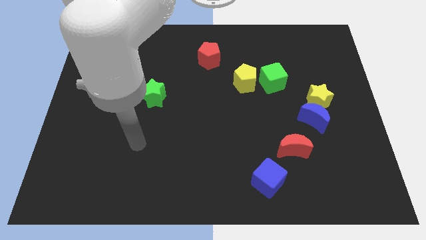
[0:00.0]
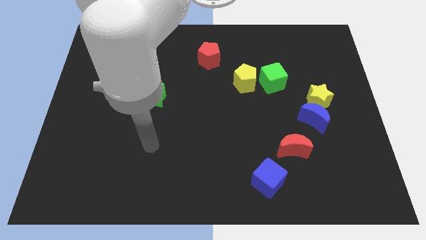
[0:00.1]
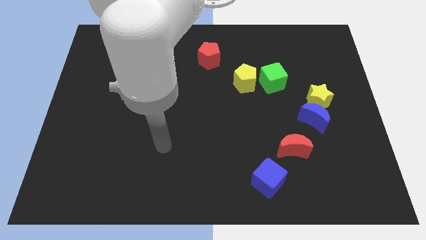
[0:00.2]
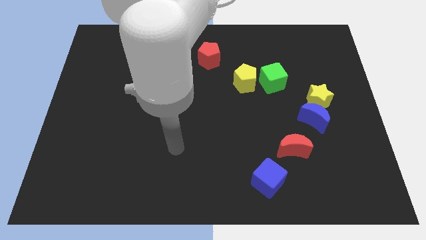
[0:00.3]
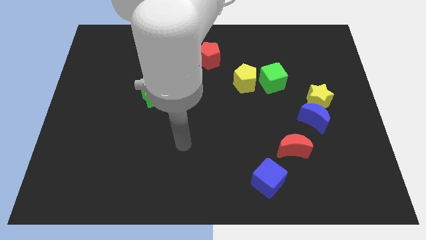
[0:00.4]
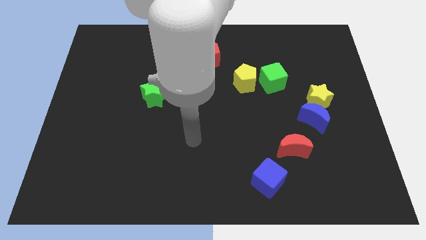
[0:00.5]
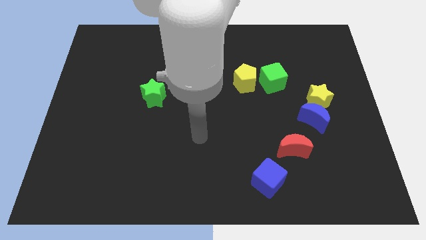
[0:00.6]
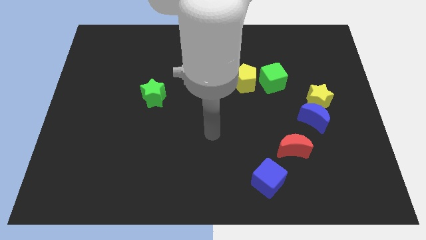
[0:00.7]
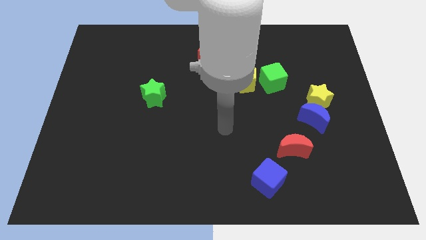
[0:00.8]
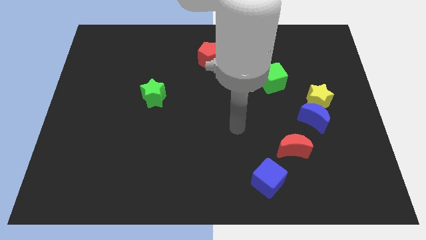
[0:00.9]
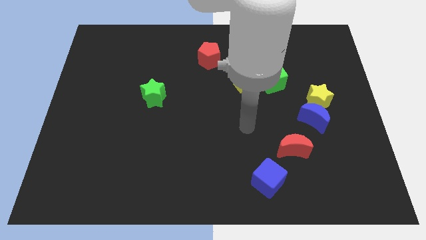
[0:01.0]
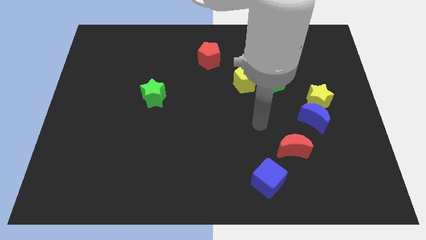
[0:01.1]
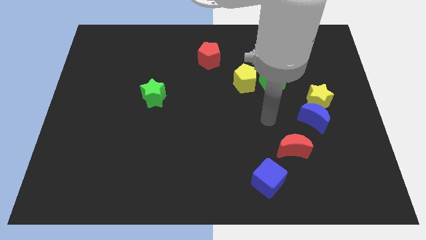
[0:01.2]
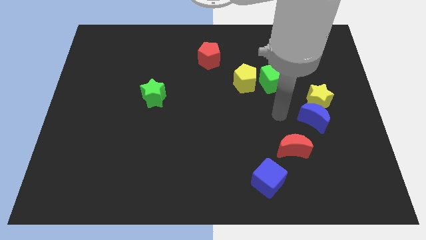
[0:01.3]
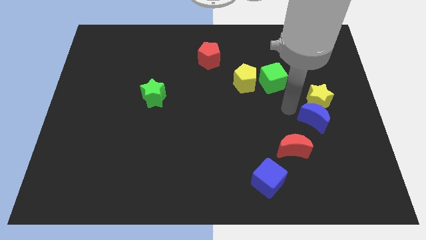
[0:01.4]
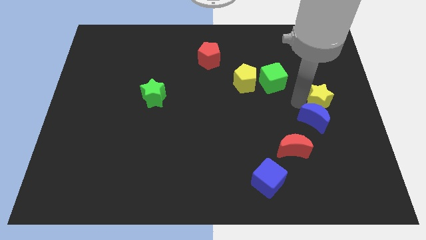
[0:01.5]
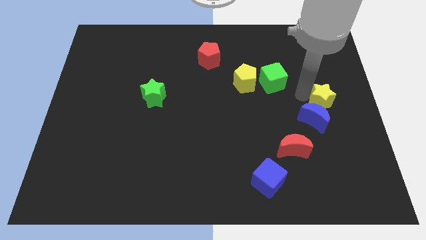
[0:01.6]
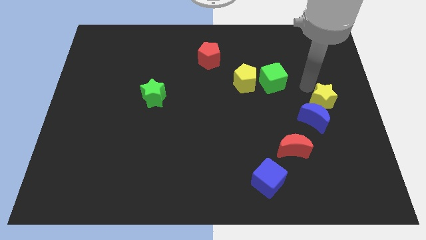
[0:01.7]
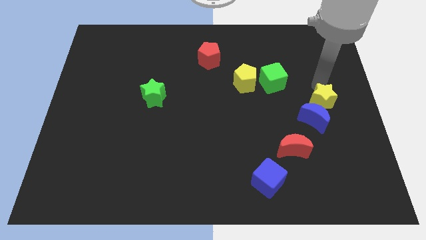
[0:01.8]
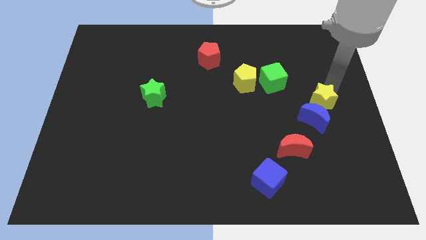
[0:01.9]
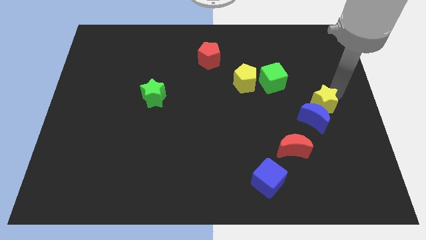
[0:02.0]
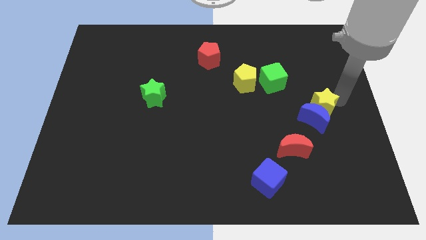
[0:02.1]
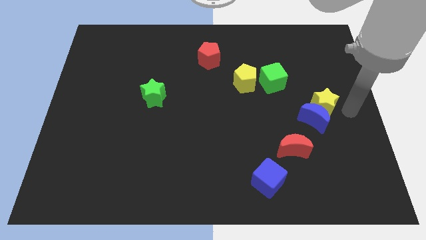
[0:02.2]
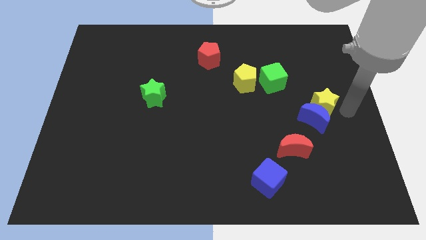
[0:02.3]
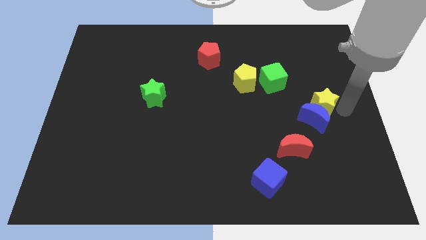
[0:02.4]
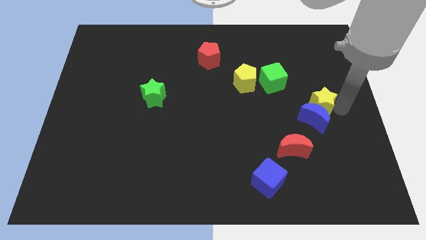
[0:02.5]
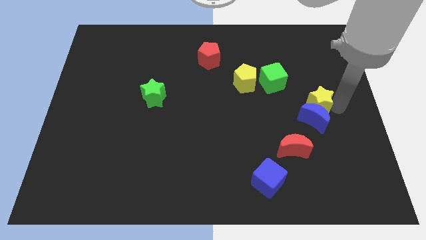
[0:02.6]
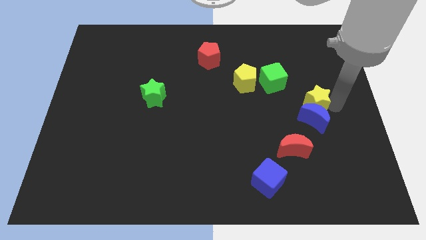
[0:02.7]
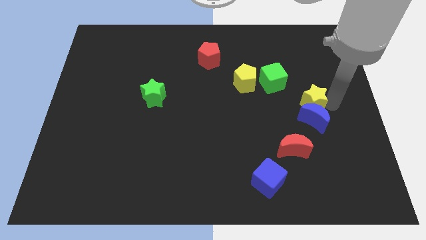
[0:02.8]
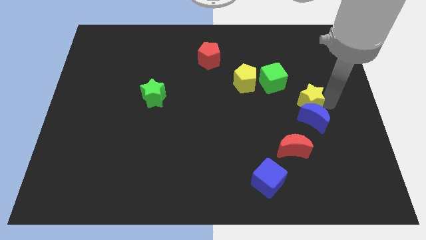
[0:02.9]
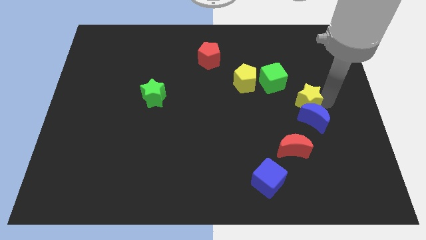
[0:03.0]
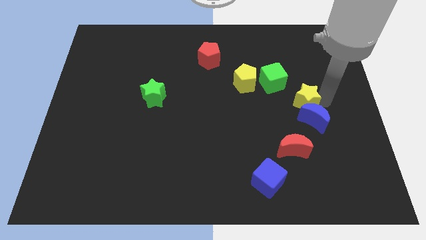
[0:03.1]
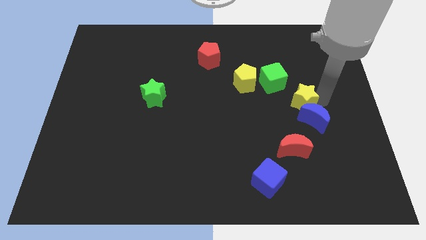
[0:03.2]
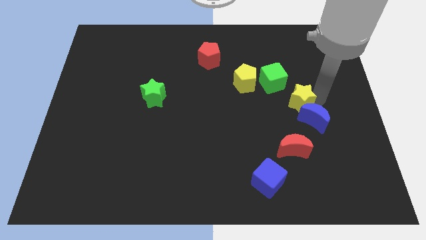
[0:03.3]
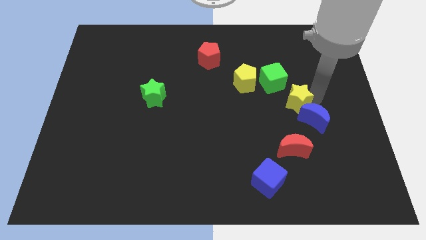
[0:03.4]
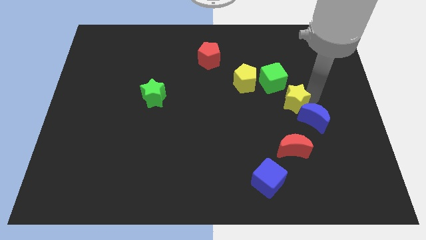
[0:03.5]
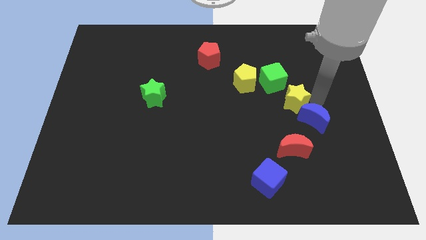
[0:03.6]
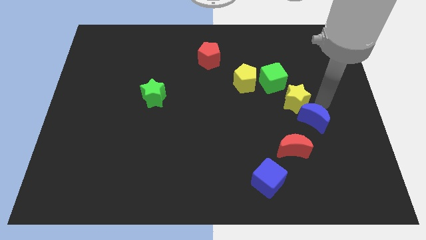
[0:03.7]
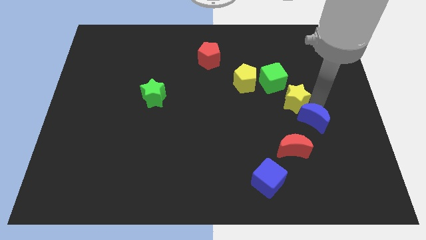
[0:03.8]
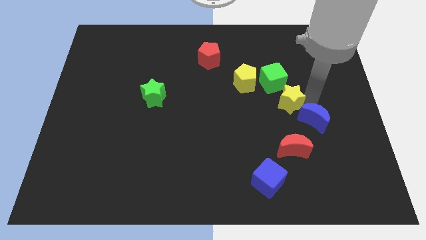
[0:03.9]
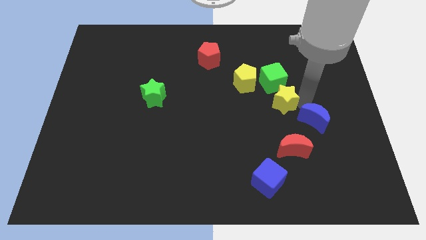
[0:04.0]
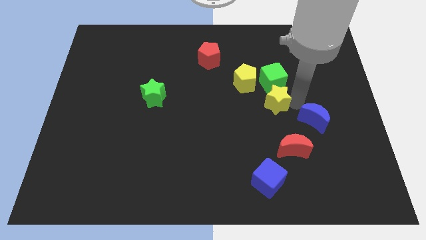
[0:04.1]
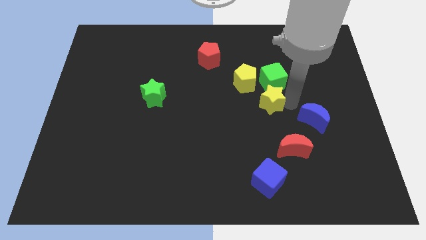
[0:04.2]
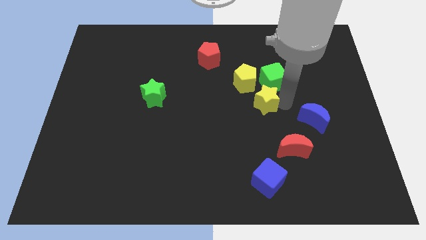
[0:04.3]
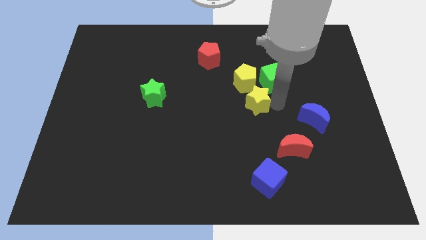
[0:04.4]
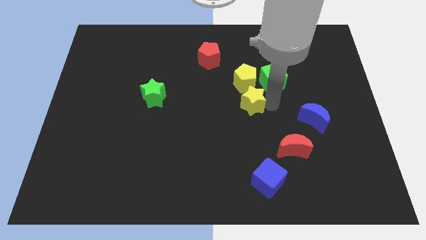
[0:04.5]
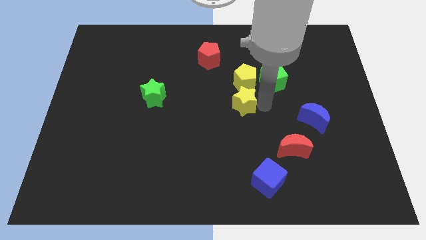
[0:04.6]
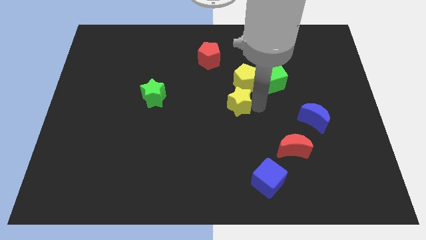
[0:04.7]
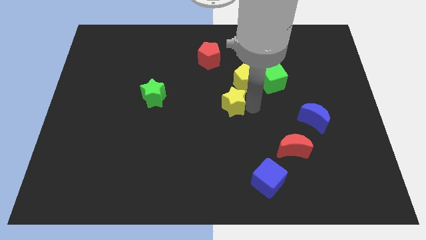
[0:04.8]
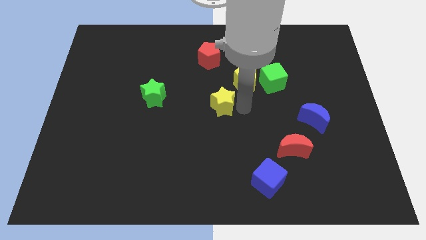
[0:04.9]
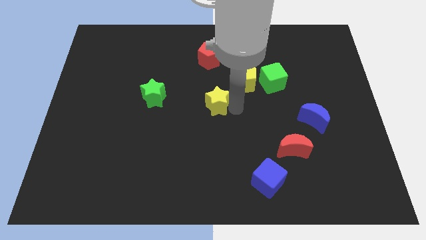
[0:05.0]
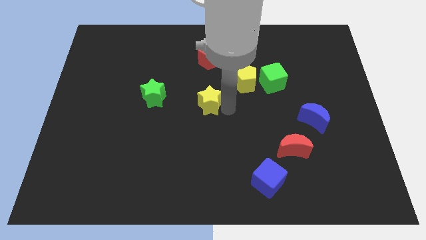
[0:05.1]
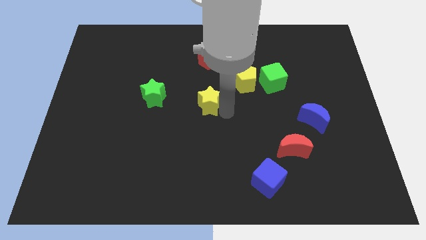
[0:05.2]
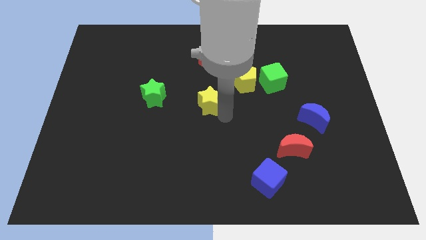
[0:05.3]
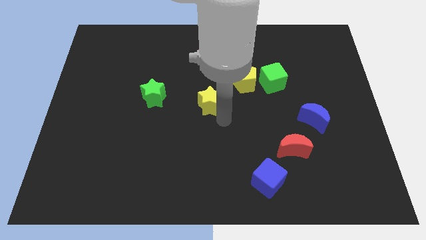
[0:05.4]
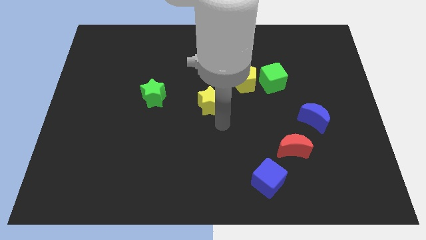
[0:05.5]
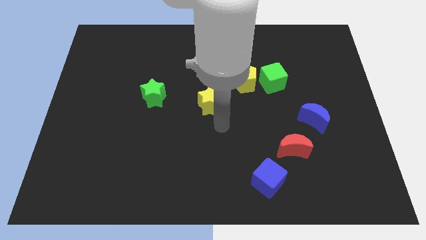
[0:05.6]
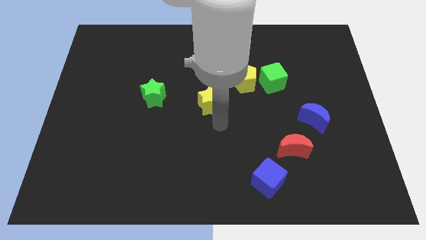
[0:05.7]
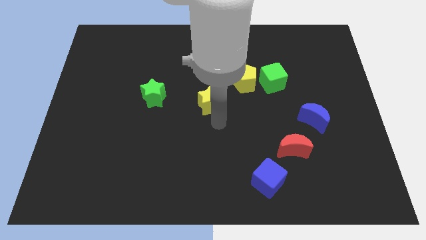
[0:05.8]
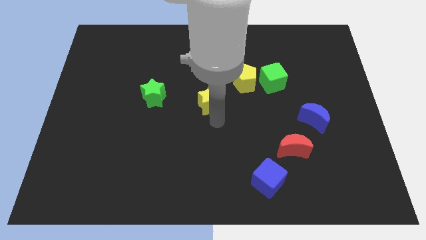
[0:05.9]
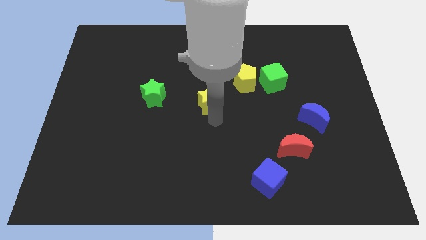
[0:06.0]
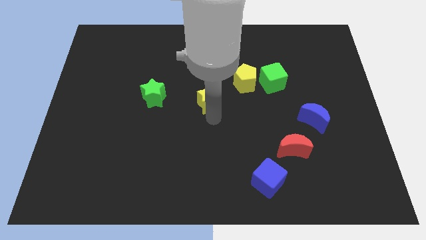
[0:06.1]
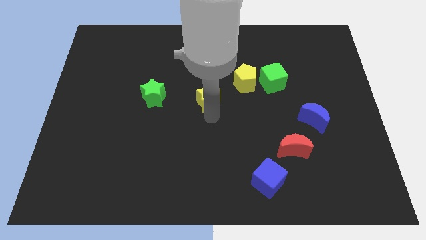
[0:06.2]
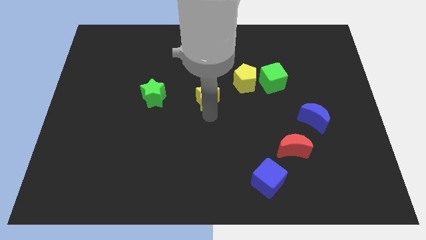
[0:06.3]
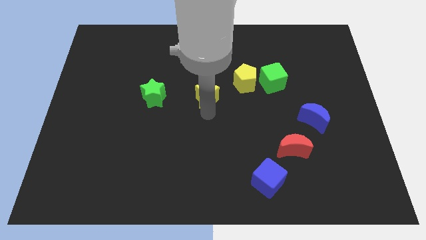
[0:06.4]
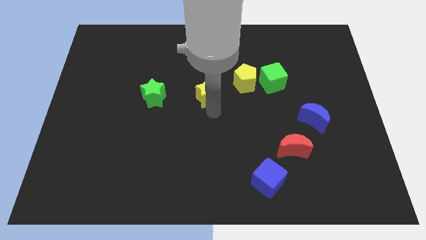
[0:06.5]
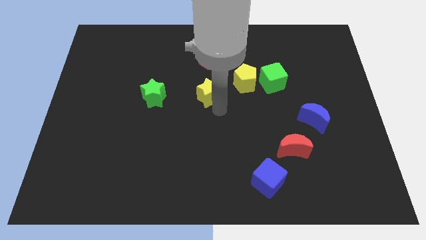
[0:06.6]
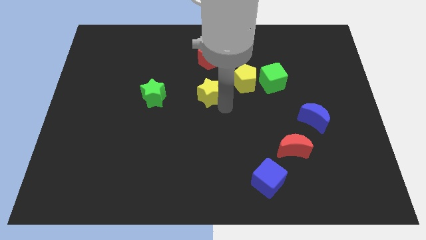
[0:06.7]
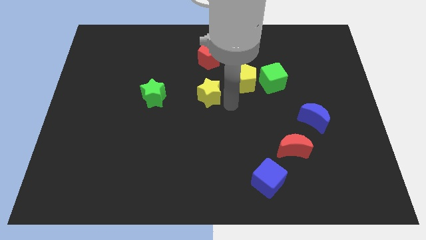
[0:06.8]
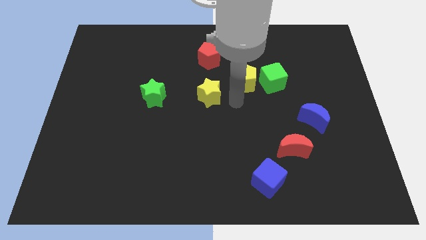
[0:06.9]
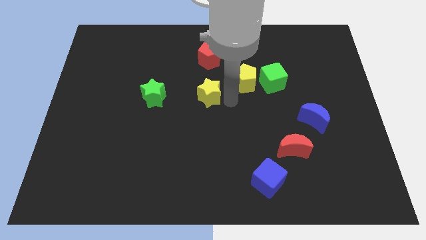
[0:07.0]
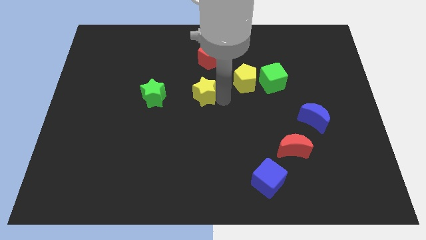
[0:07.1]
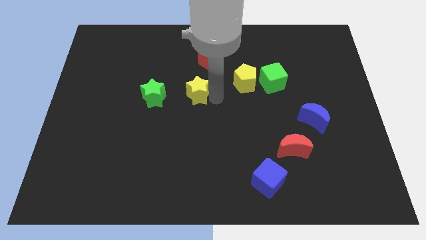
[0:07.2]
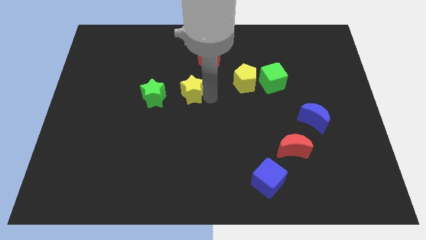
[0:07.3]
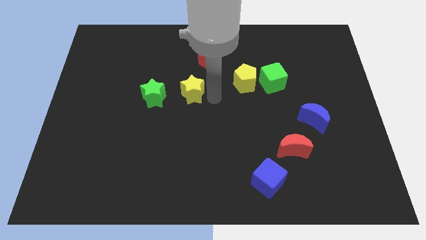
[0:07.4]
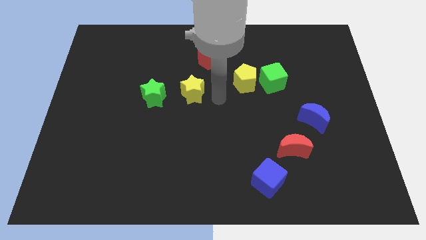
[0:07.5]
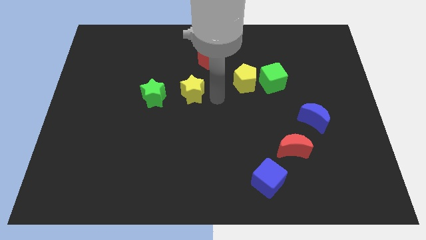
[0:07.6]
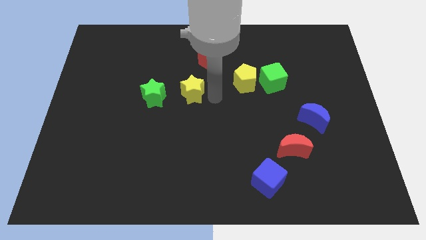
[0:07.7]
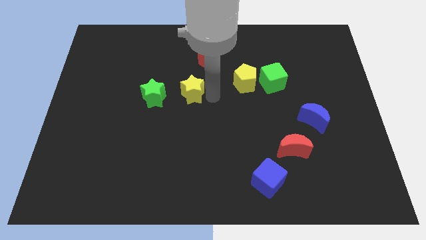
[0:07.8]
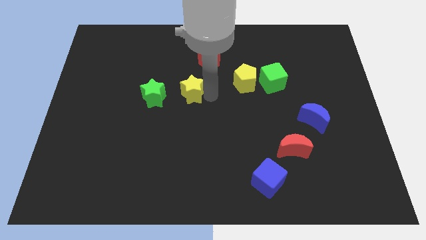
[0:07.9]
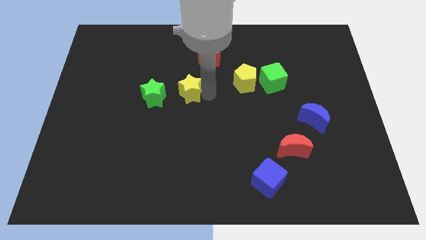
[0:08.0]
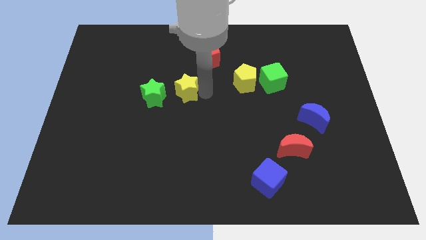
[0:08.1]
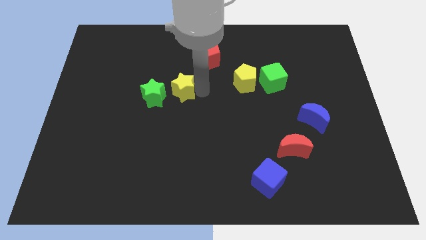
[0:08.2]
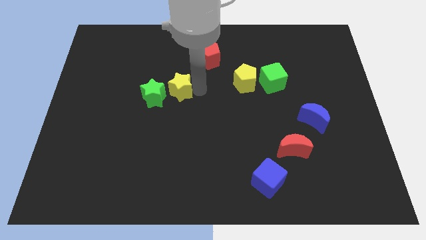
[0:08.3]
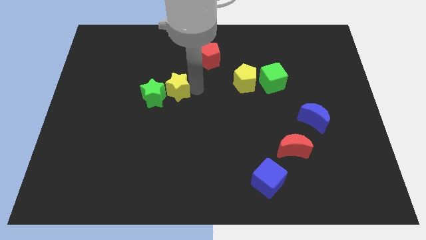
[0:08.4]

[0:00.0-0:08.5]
push the yellow star close to the green star
